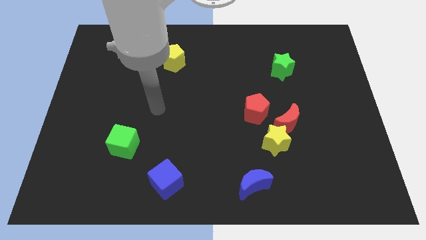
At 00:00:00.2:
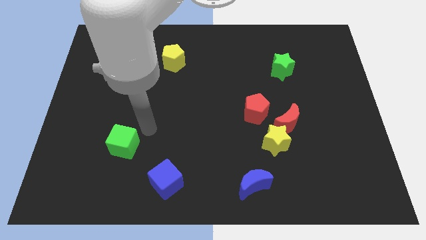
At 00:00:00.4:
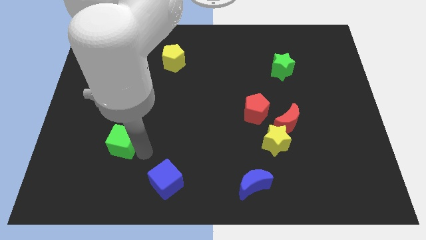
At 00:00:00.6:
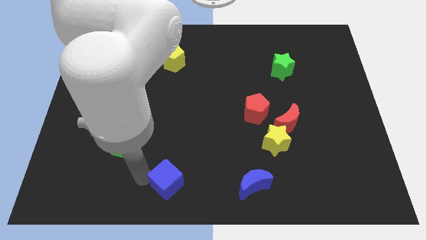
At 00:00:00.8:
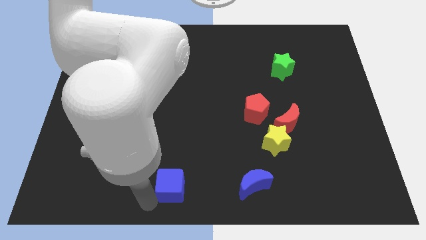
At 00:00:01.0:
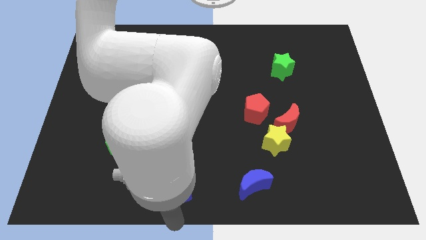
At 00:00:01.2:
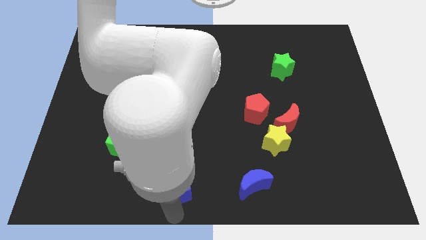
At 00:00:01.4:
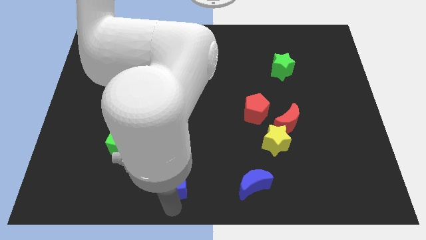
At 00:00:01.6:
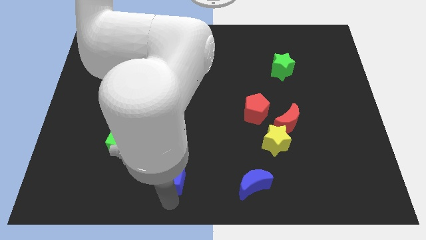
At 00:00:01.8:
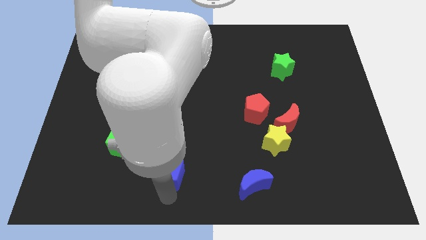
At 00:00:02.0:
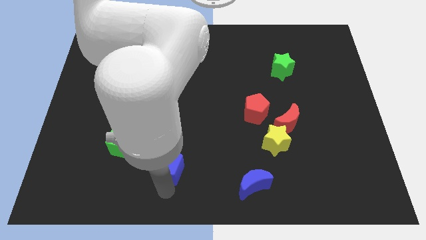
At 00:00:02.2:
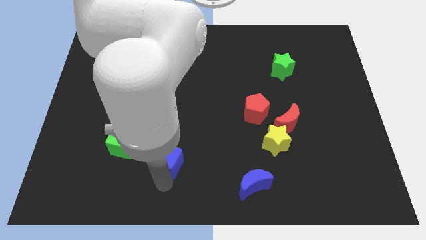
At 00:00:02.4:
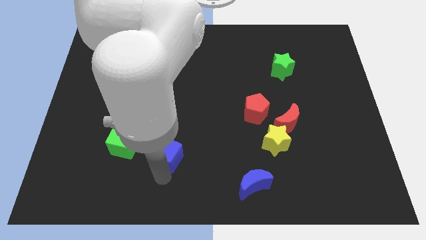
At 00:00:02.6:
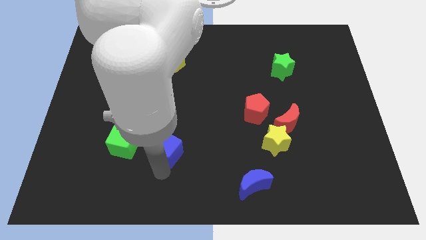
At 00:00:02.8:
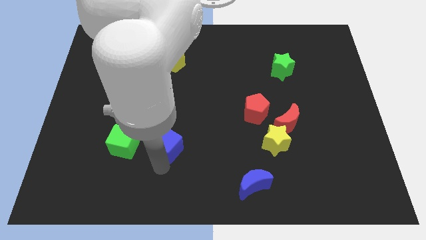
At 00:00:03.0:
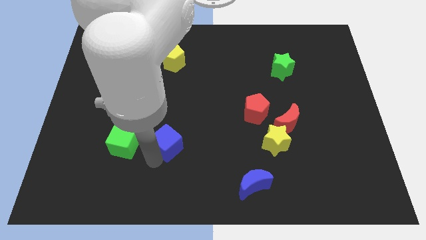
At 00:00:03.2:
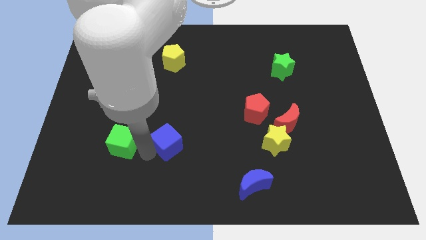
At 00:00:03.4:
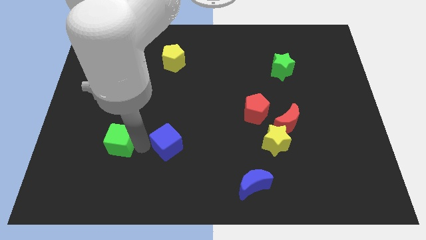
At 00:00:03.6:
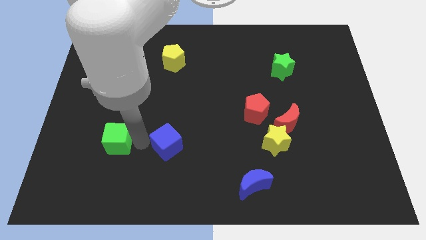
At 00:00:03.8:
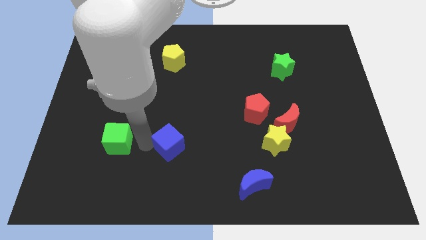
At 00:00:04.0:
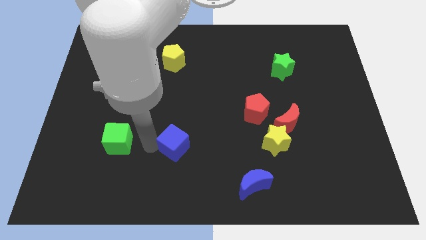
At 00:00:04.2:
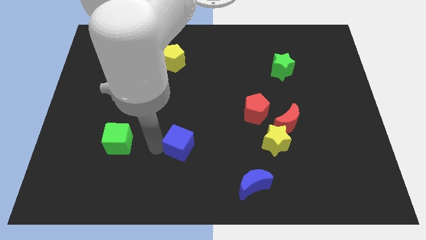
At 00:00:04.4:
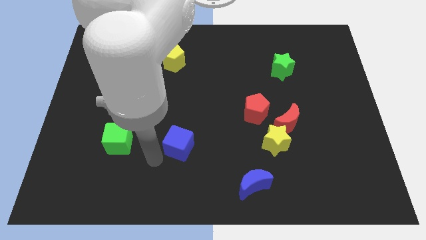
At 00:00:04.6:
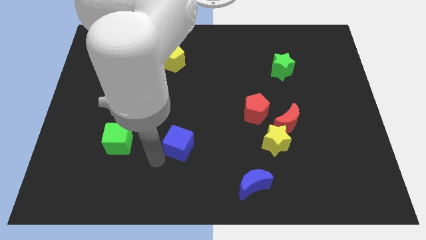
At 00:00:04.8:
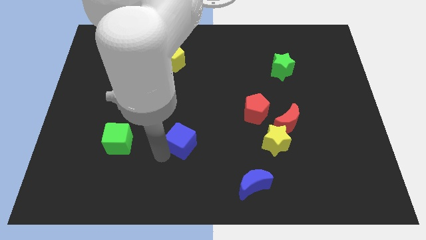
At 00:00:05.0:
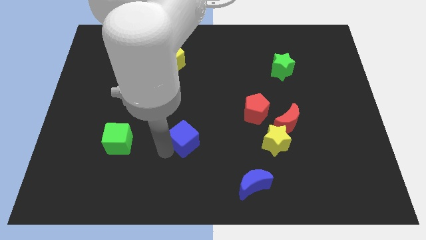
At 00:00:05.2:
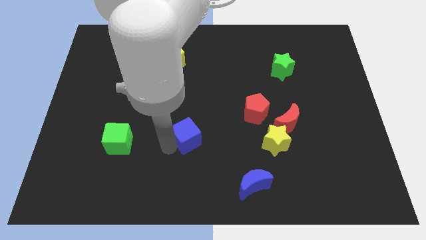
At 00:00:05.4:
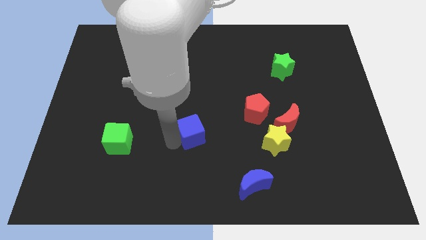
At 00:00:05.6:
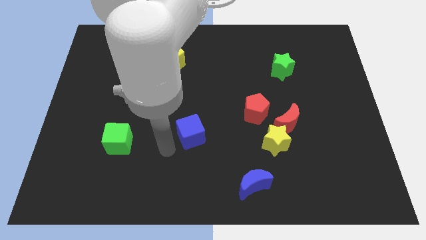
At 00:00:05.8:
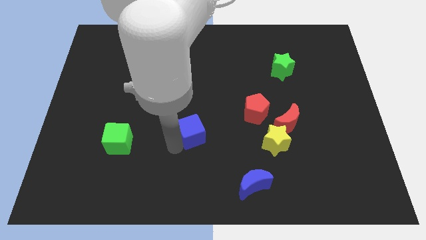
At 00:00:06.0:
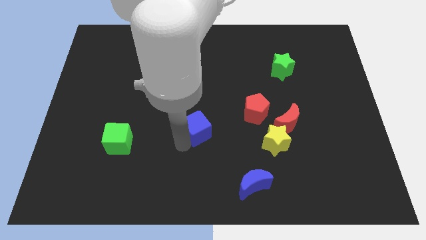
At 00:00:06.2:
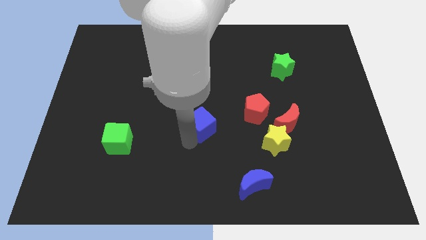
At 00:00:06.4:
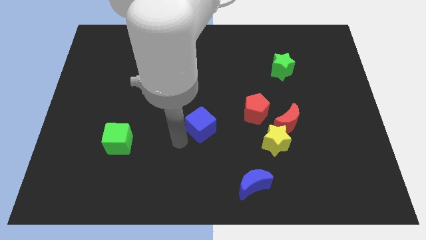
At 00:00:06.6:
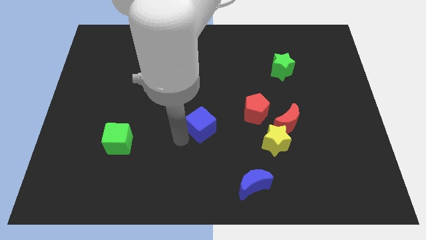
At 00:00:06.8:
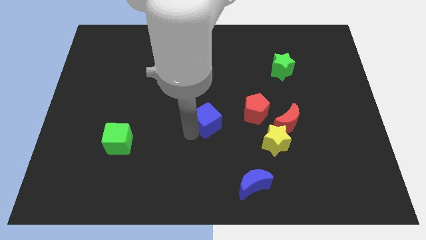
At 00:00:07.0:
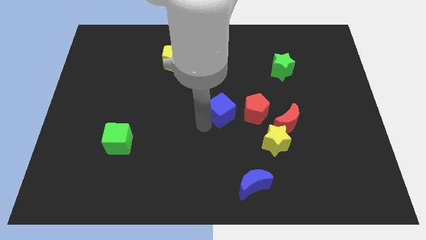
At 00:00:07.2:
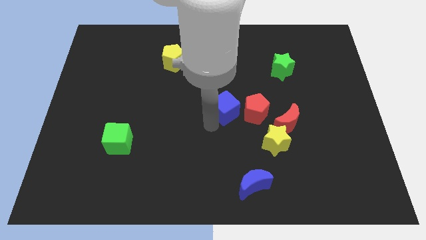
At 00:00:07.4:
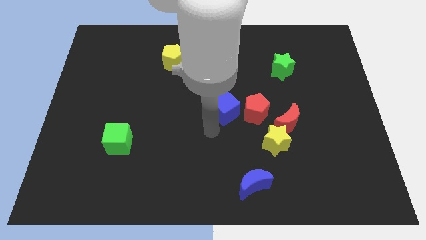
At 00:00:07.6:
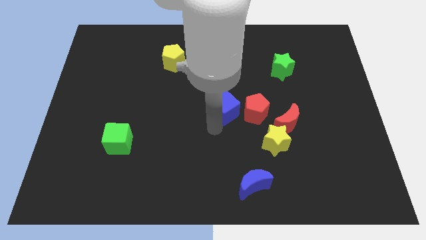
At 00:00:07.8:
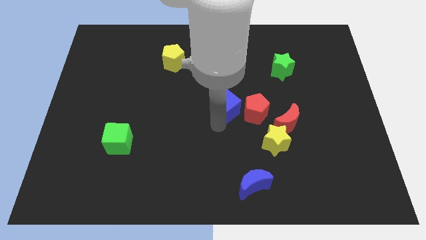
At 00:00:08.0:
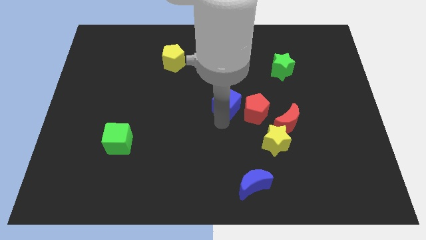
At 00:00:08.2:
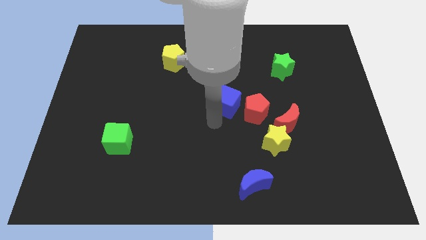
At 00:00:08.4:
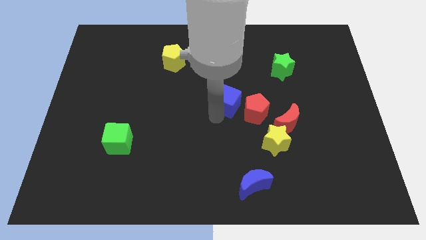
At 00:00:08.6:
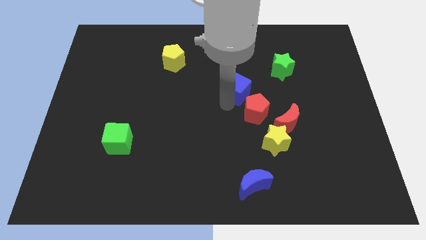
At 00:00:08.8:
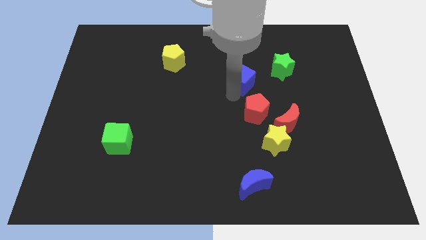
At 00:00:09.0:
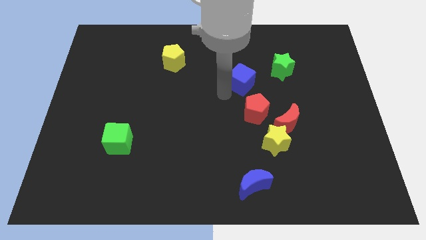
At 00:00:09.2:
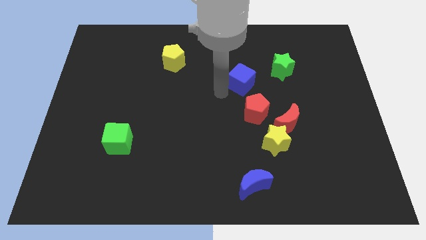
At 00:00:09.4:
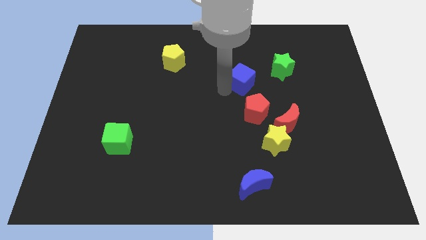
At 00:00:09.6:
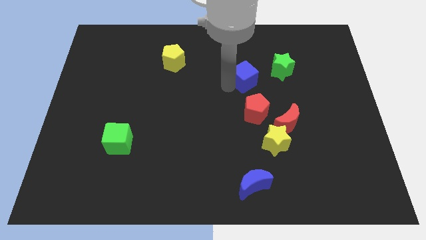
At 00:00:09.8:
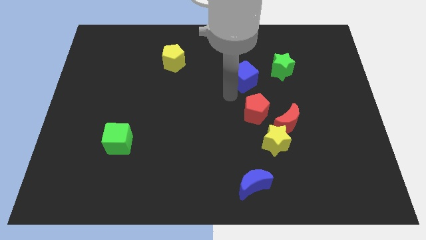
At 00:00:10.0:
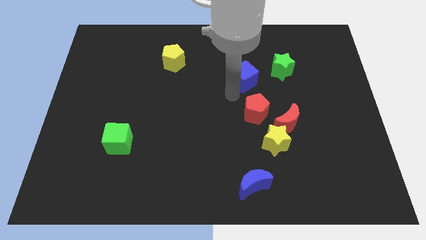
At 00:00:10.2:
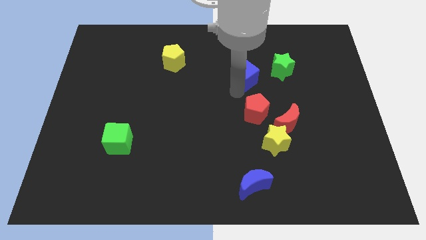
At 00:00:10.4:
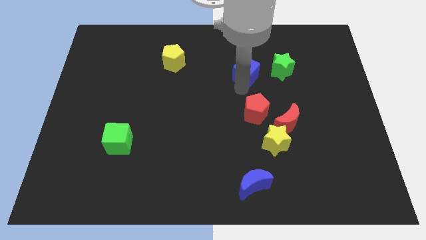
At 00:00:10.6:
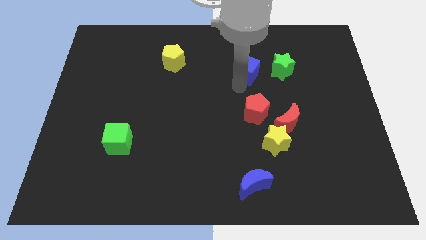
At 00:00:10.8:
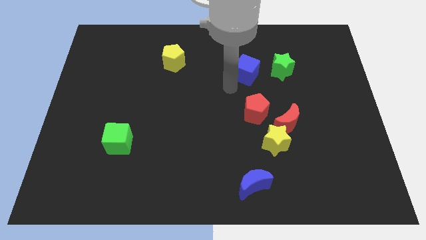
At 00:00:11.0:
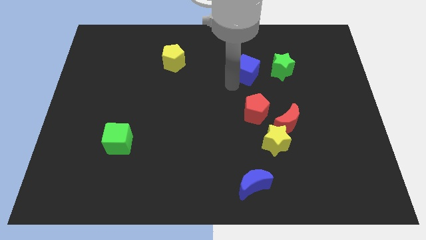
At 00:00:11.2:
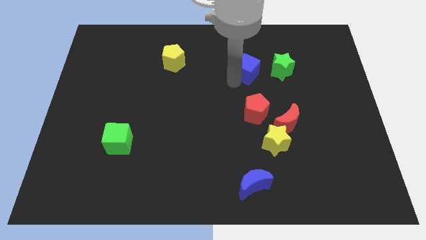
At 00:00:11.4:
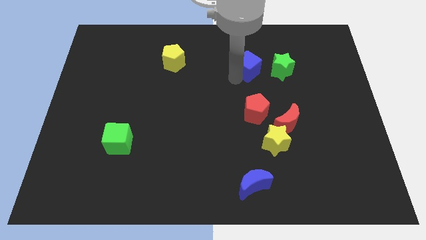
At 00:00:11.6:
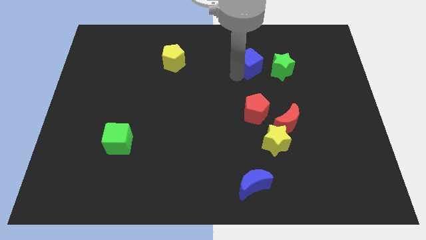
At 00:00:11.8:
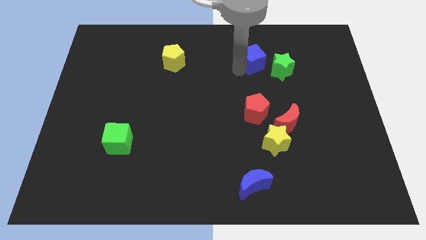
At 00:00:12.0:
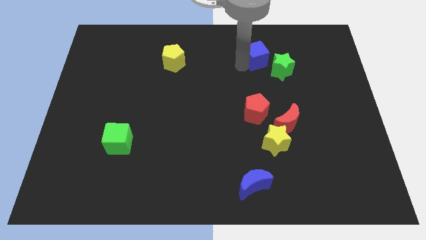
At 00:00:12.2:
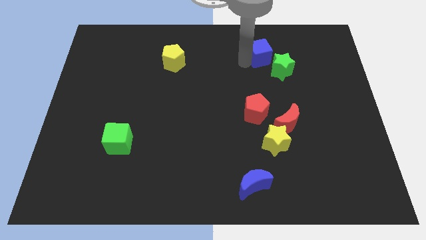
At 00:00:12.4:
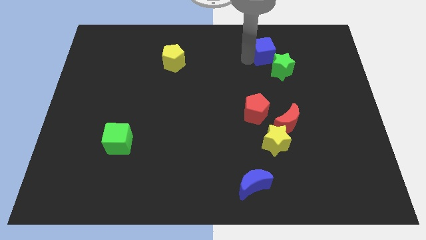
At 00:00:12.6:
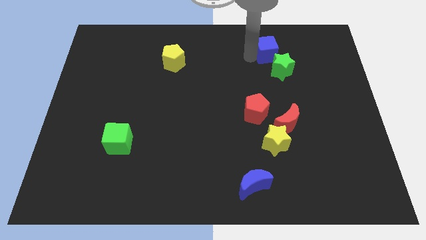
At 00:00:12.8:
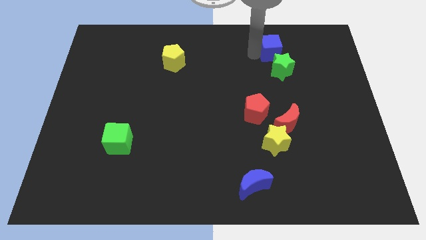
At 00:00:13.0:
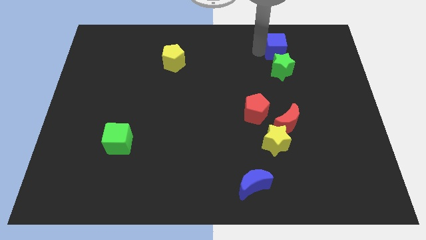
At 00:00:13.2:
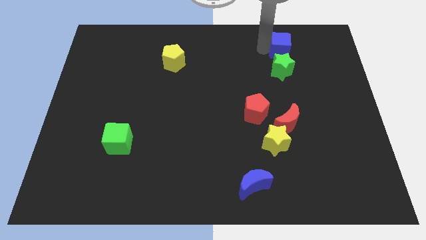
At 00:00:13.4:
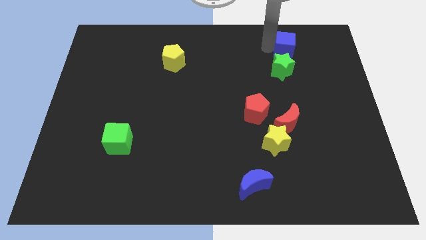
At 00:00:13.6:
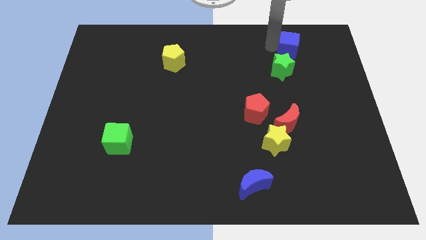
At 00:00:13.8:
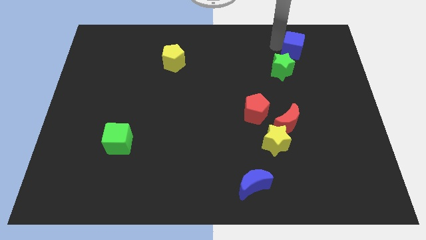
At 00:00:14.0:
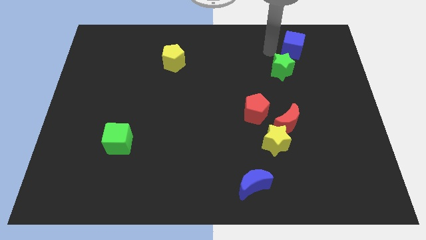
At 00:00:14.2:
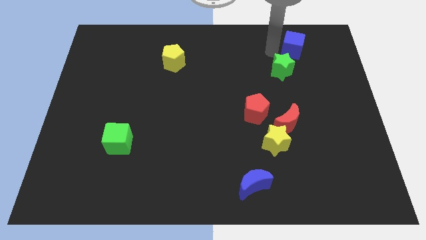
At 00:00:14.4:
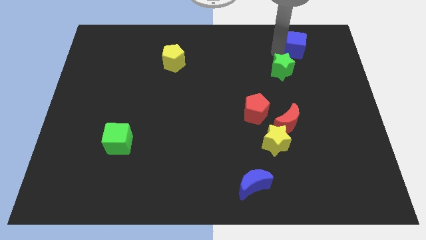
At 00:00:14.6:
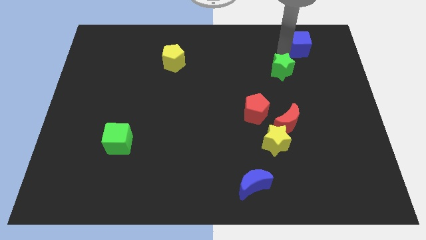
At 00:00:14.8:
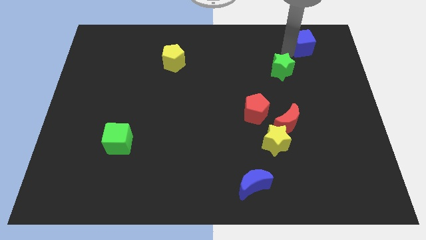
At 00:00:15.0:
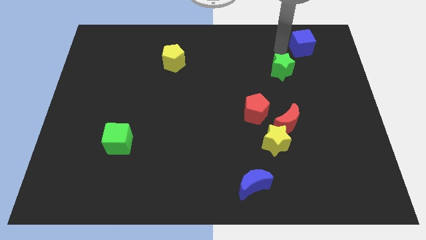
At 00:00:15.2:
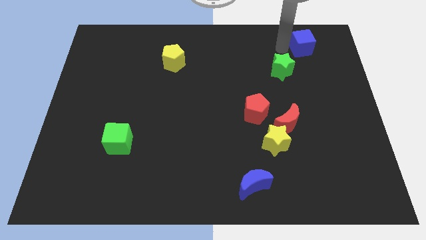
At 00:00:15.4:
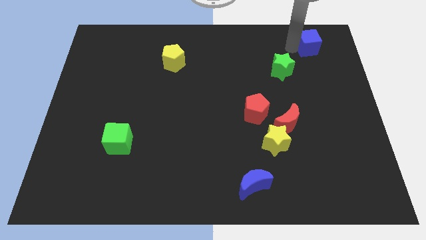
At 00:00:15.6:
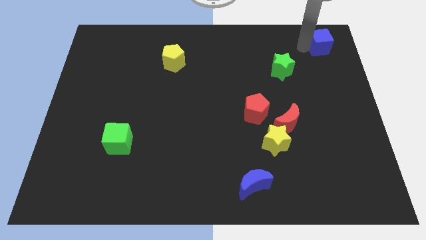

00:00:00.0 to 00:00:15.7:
slide the blue cube to the top right of the board
